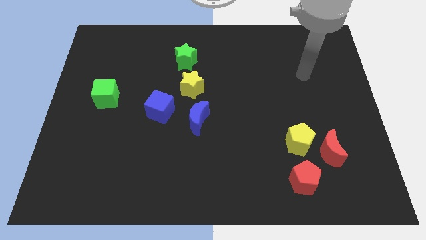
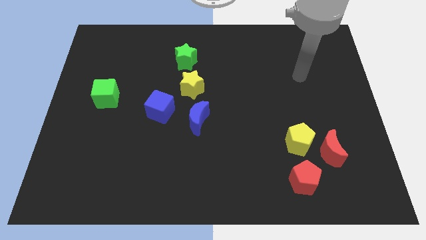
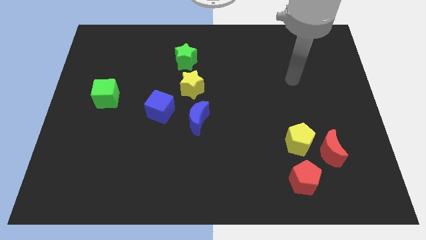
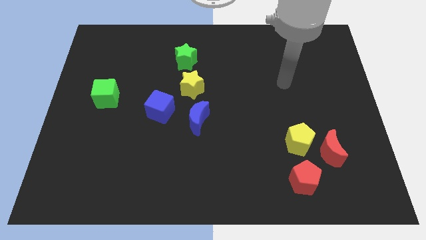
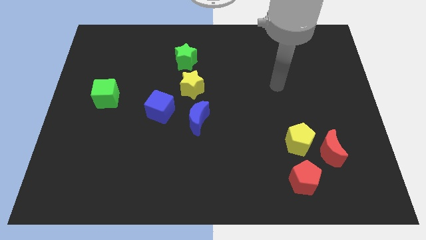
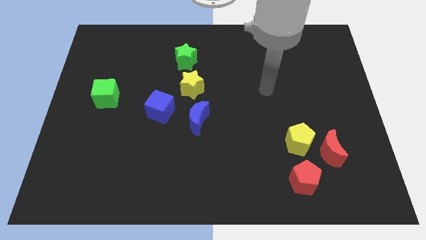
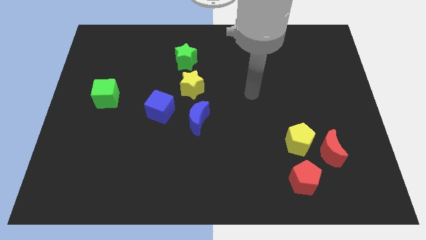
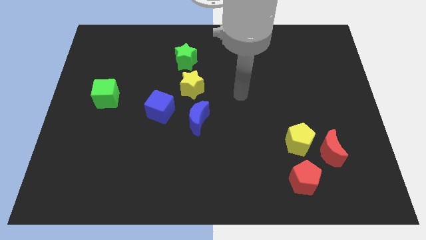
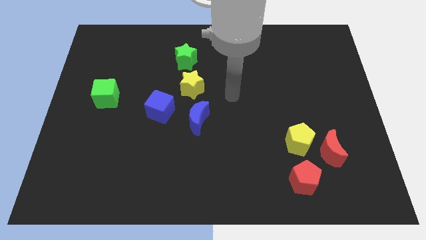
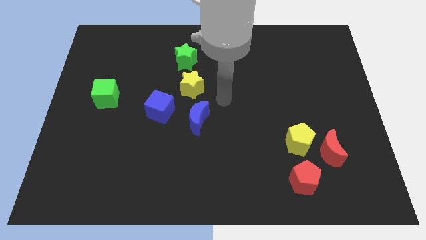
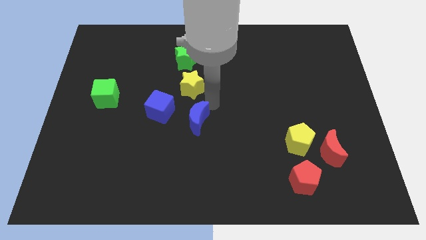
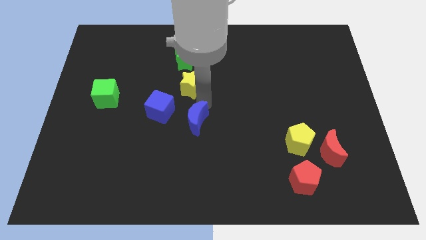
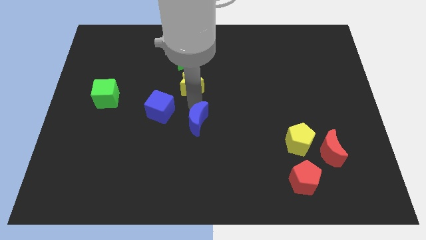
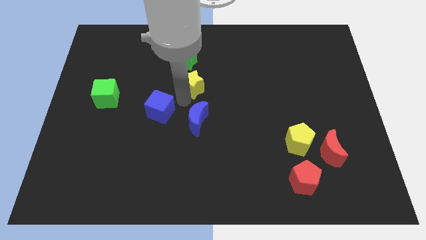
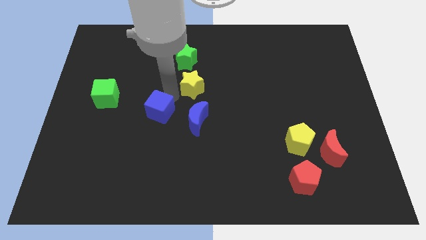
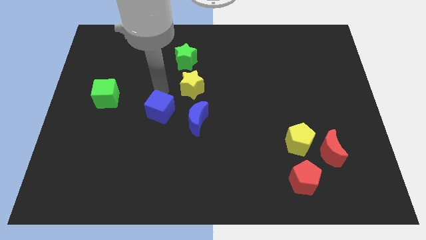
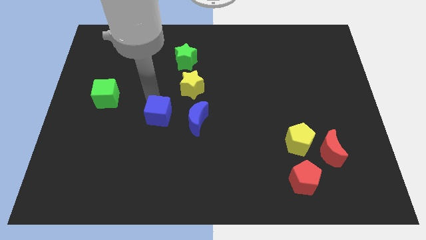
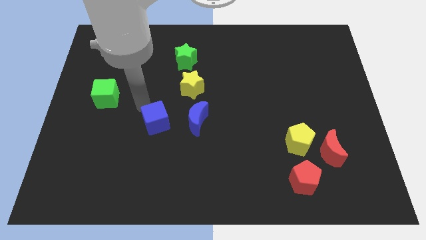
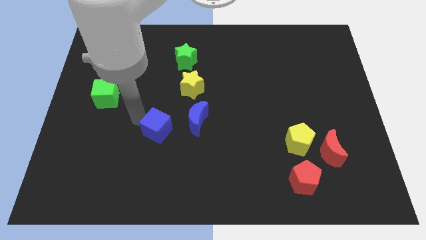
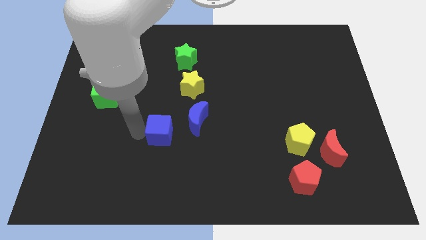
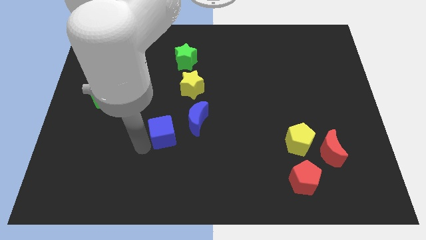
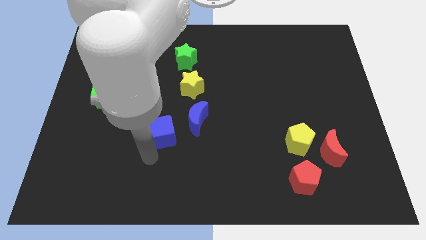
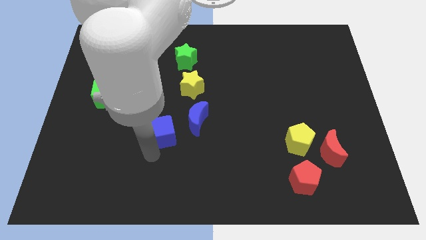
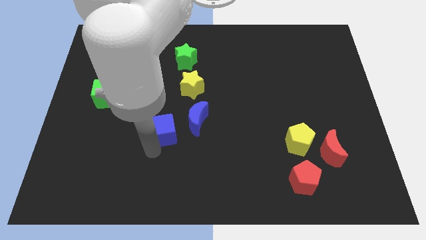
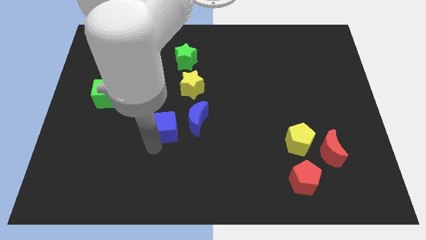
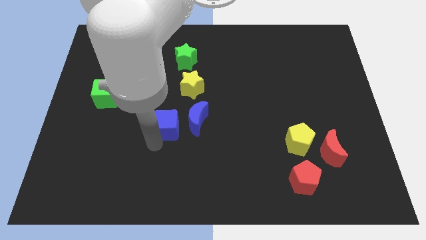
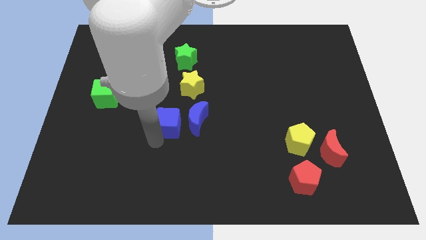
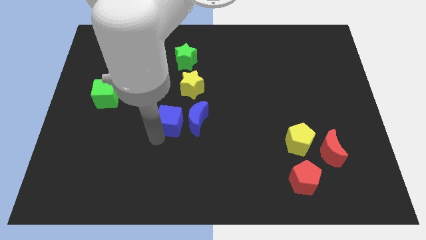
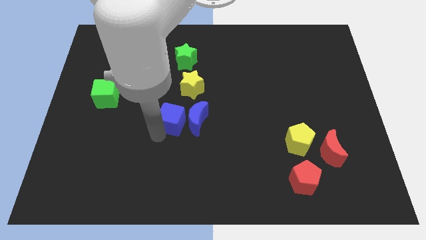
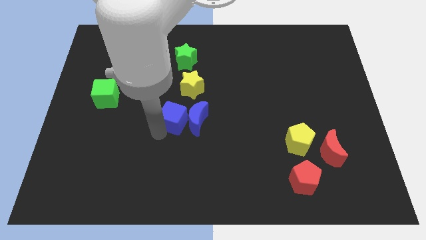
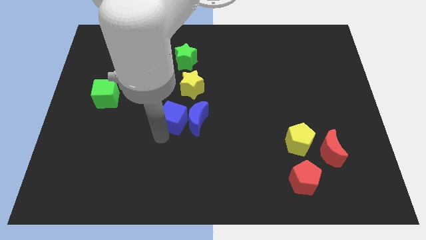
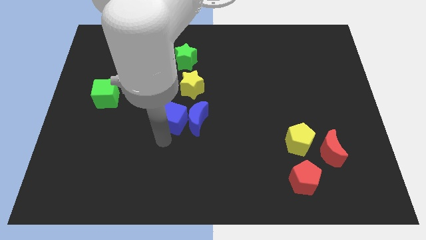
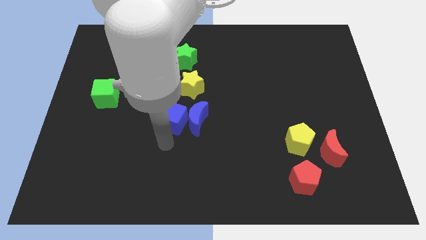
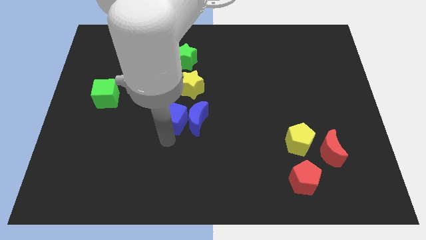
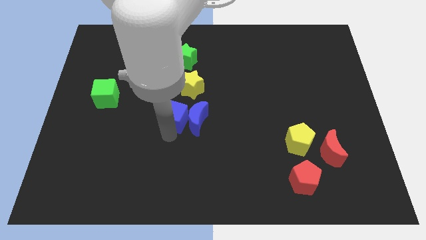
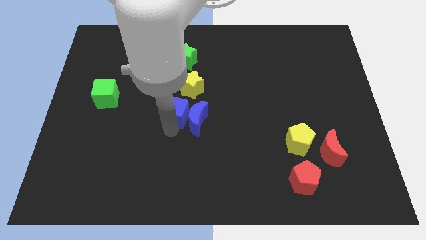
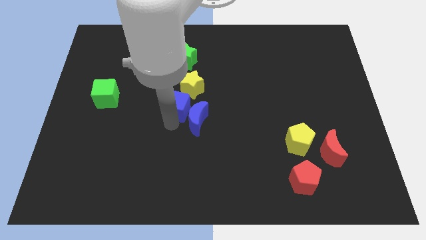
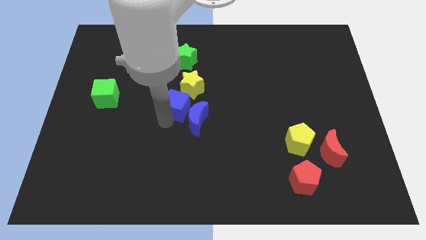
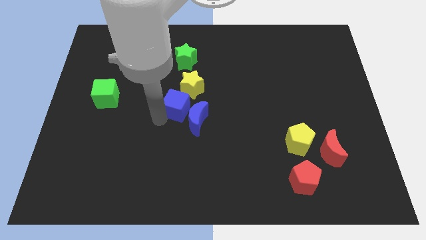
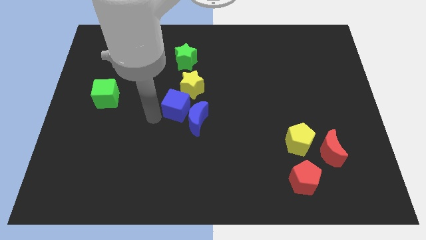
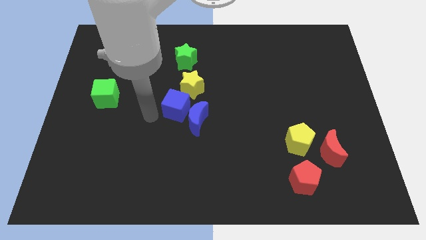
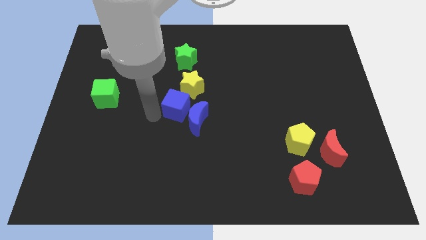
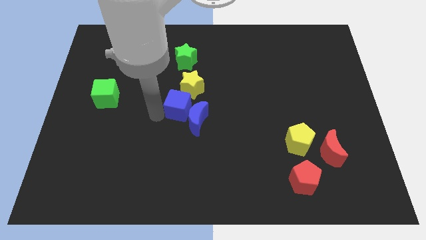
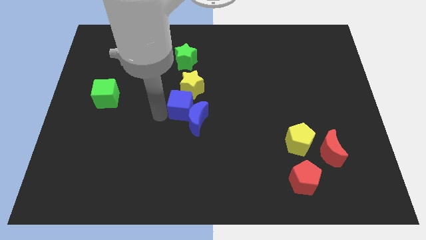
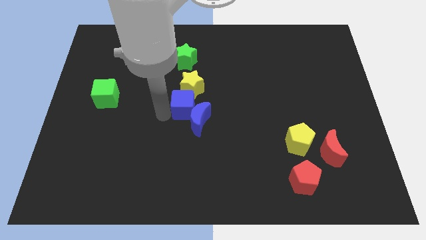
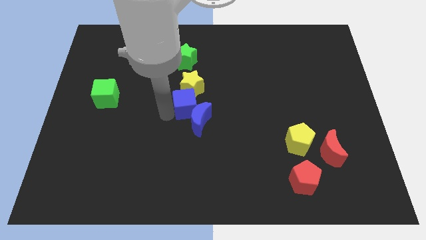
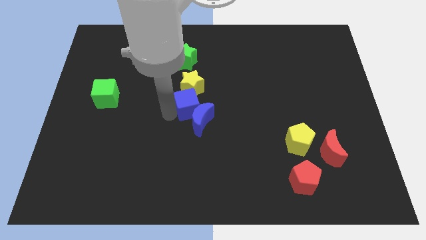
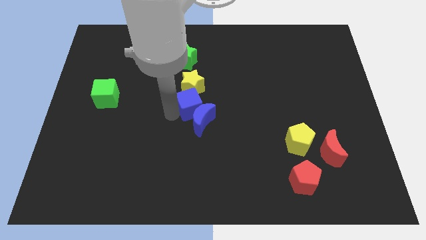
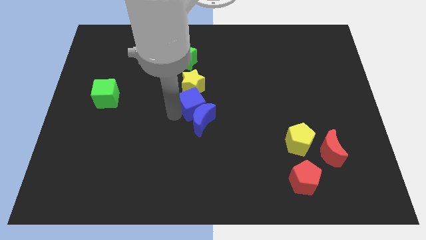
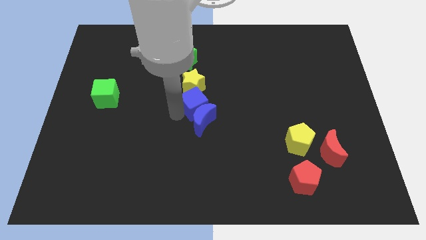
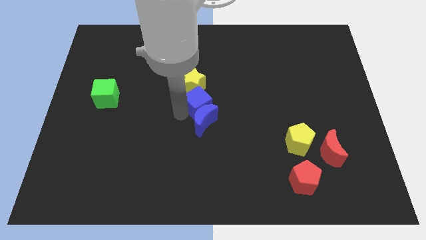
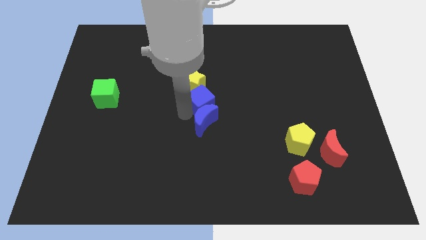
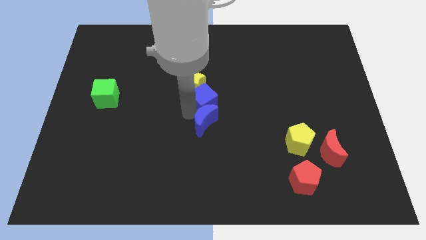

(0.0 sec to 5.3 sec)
slide the blue cube up and right a little bit

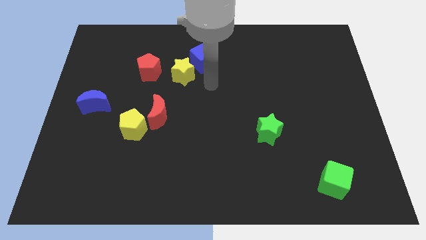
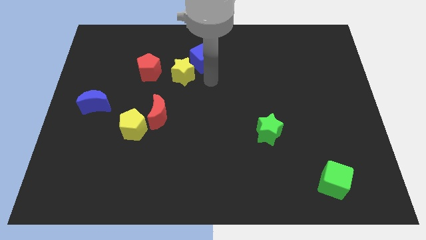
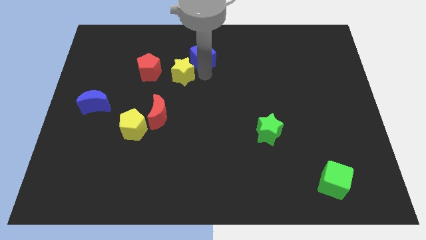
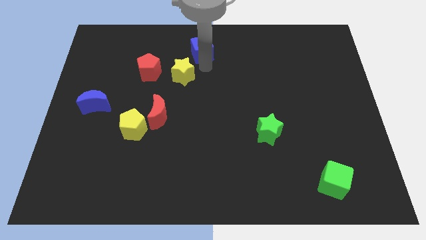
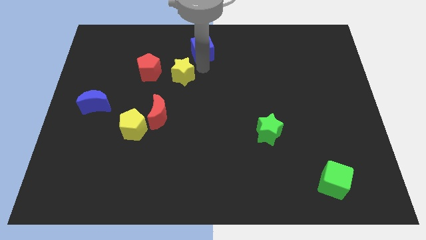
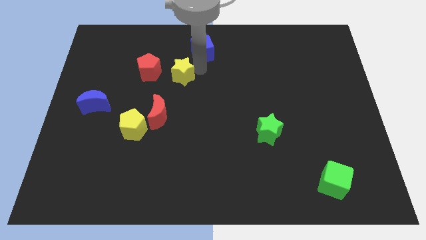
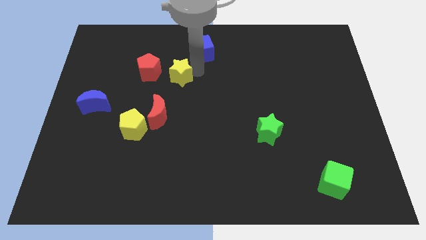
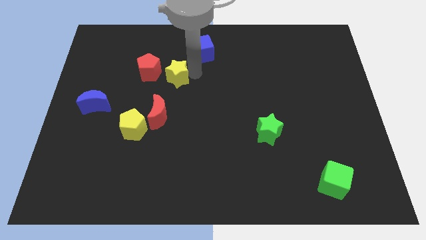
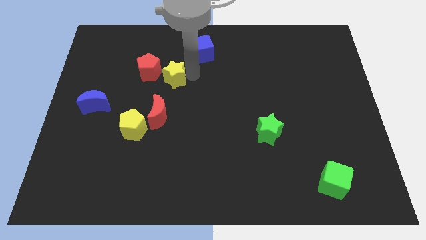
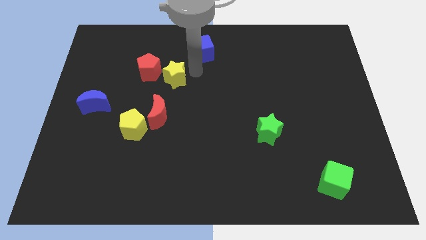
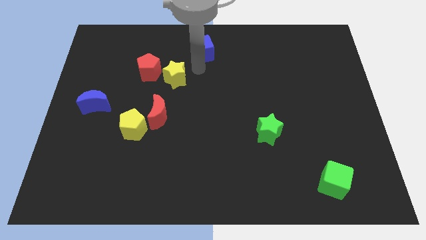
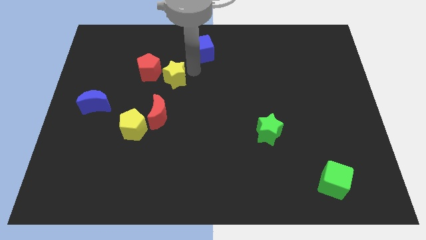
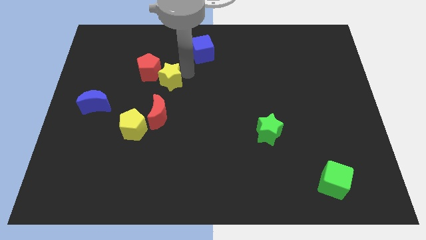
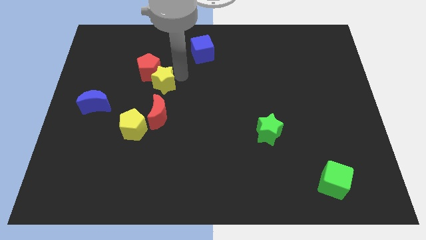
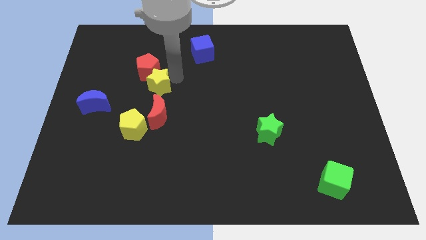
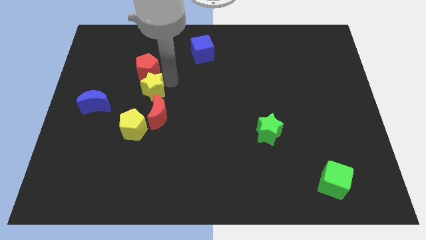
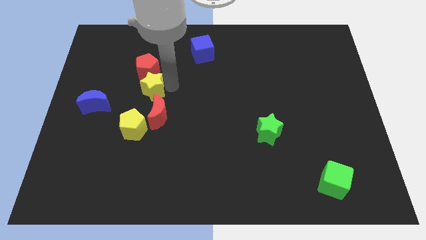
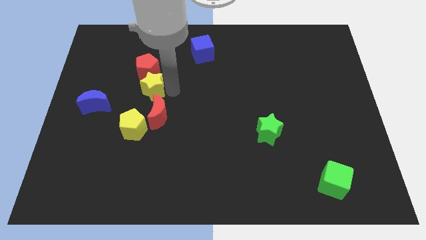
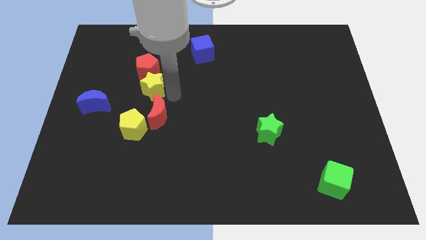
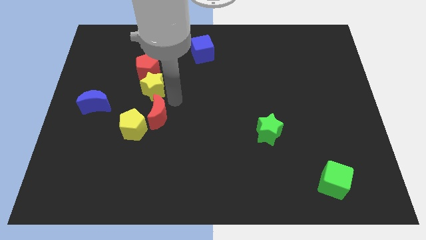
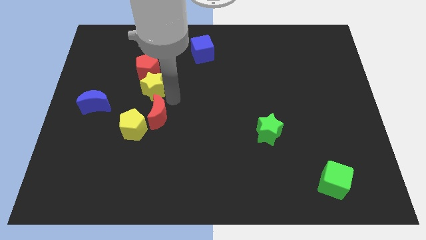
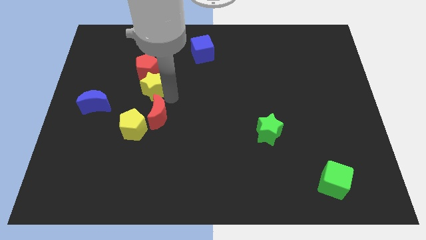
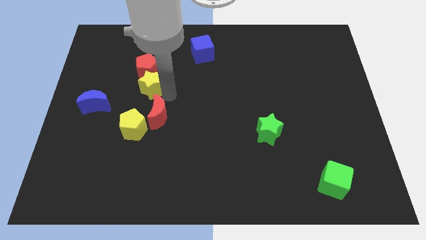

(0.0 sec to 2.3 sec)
slightly push the yellow star left

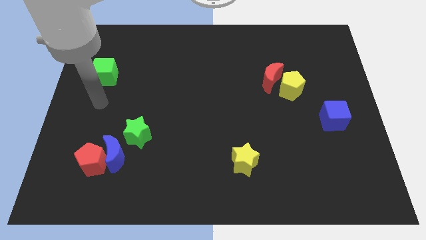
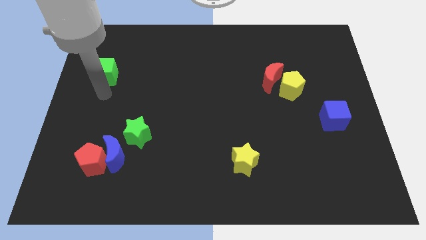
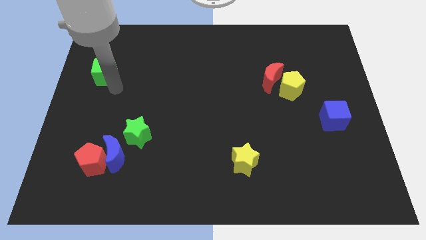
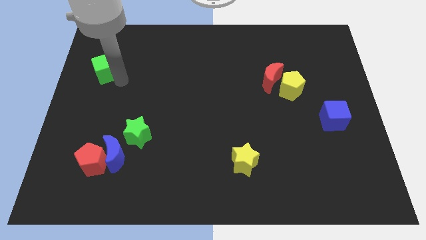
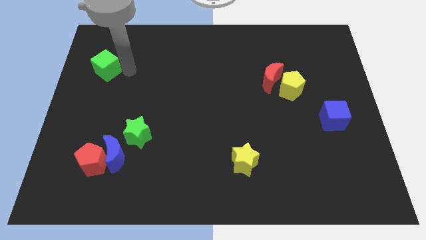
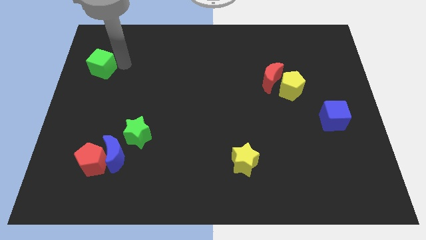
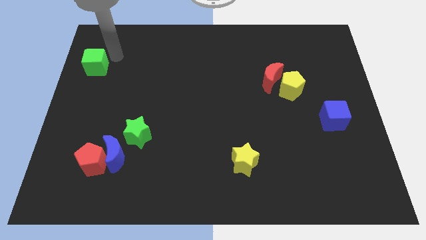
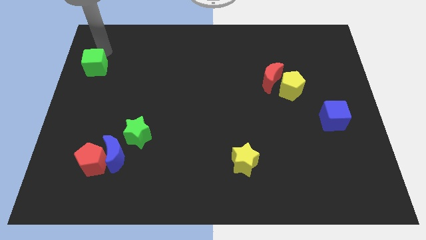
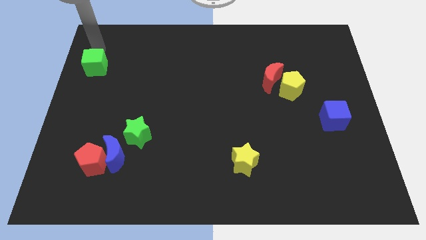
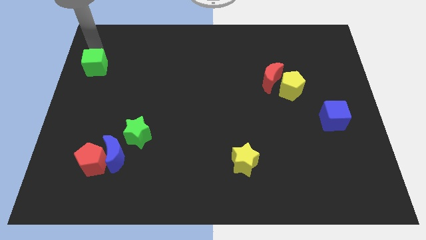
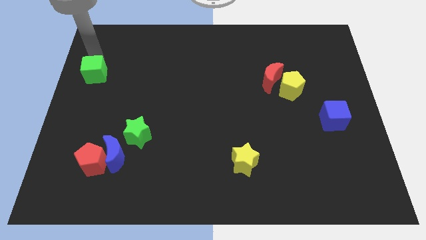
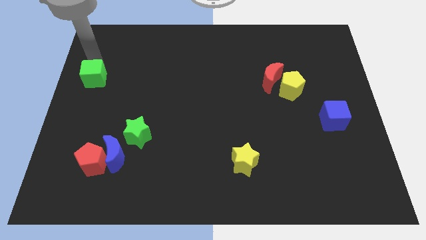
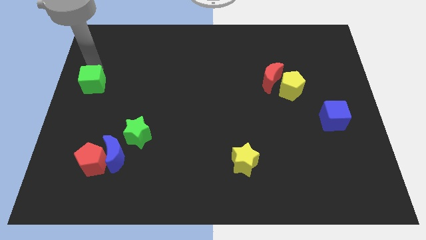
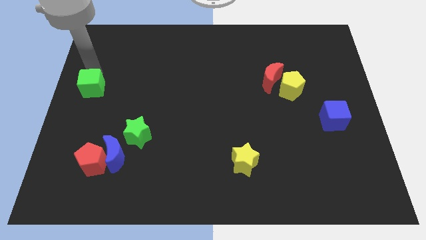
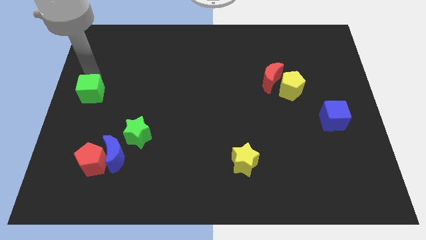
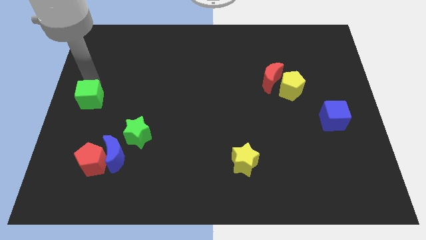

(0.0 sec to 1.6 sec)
push the green cube downwards slightly
